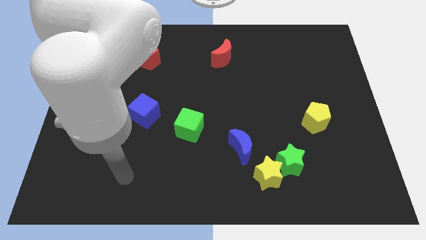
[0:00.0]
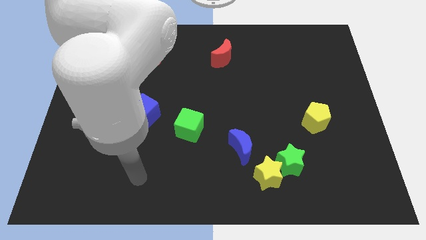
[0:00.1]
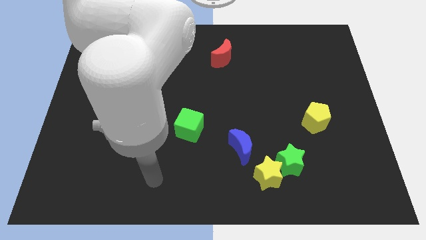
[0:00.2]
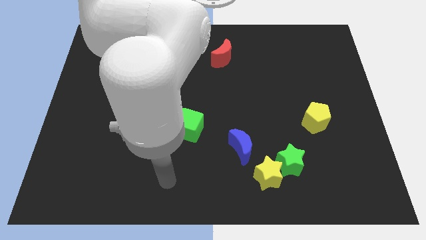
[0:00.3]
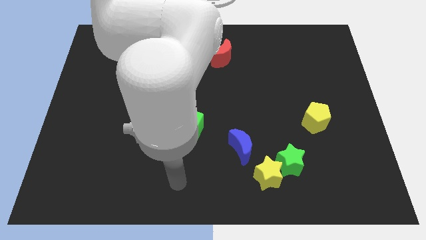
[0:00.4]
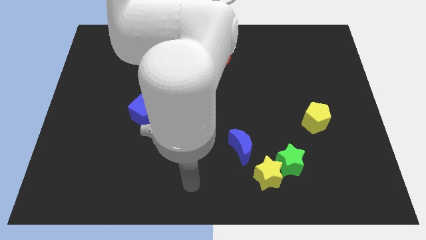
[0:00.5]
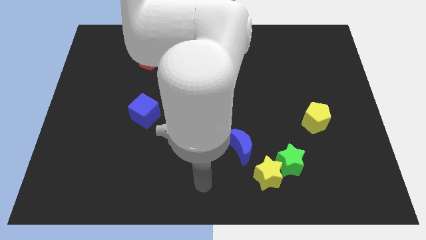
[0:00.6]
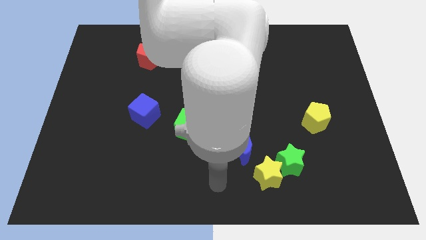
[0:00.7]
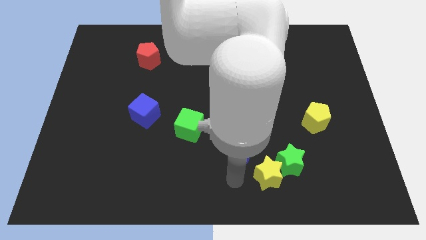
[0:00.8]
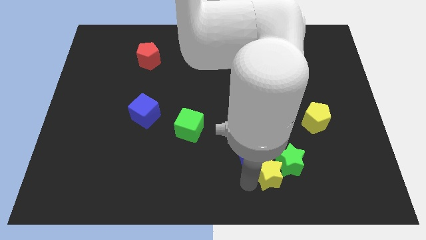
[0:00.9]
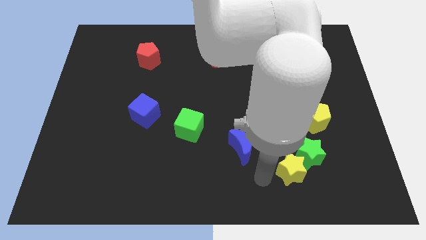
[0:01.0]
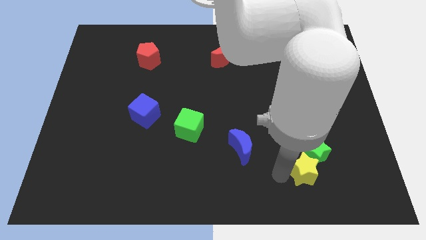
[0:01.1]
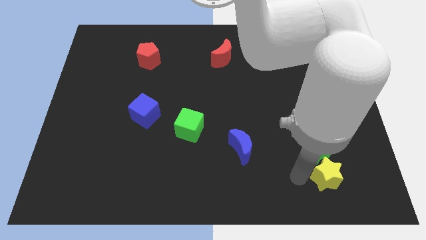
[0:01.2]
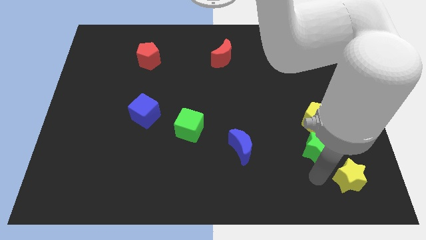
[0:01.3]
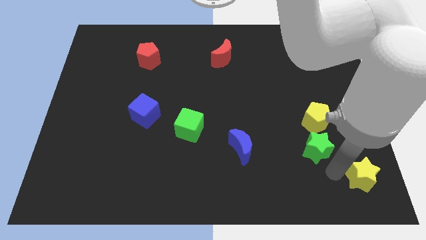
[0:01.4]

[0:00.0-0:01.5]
separate the green star from the yellow star

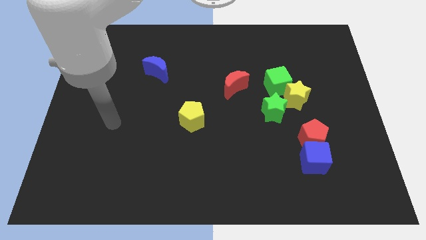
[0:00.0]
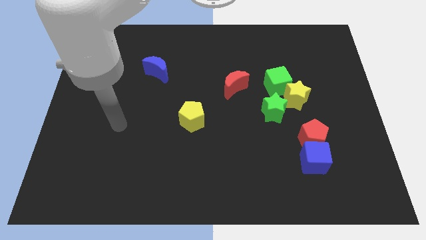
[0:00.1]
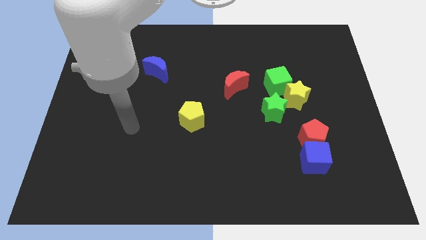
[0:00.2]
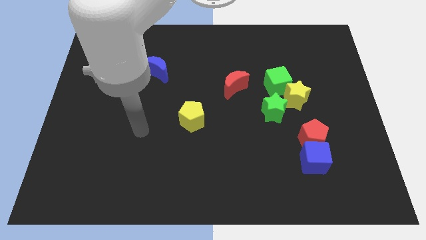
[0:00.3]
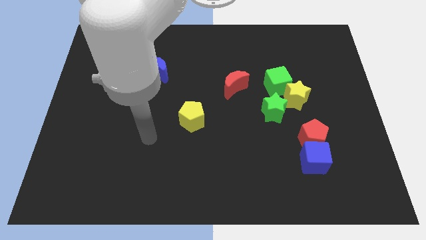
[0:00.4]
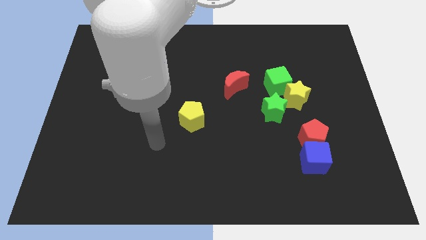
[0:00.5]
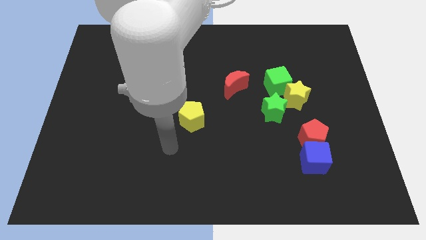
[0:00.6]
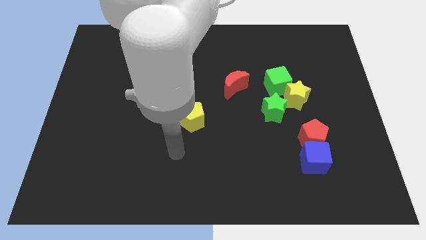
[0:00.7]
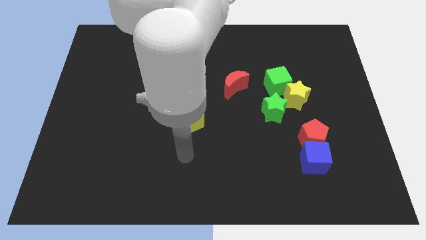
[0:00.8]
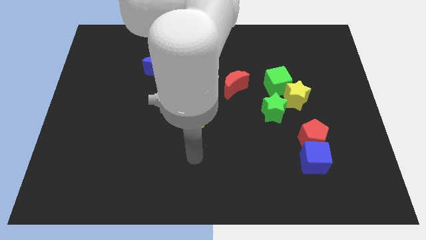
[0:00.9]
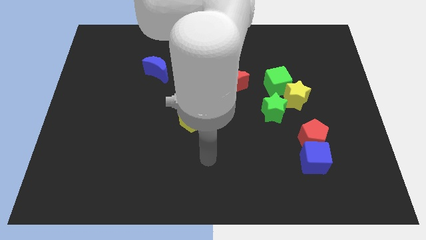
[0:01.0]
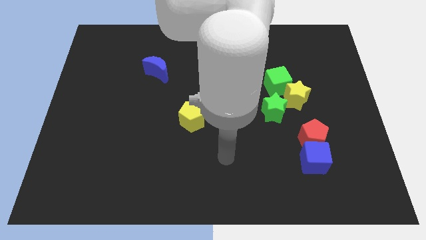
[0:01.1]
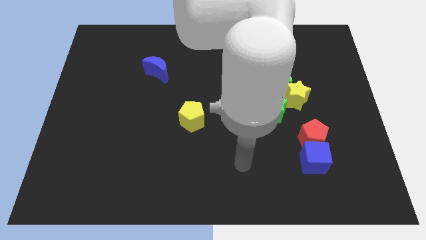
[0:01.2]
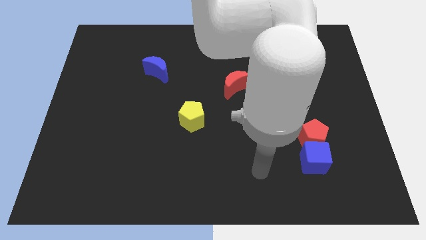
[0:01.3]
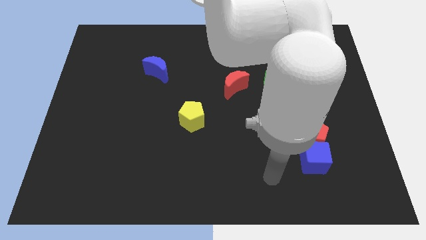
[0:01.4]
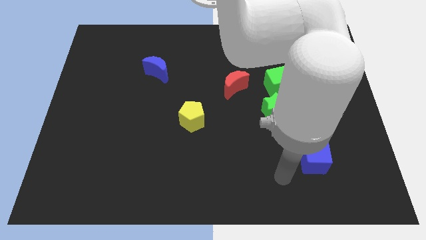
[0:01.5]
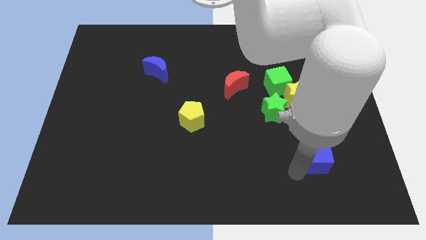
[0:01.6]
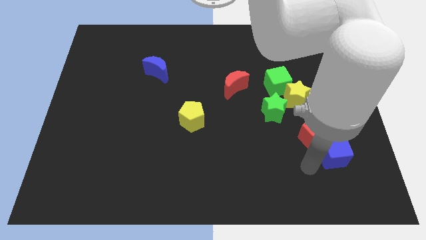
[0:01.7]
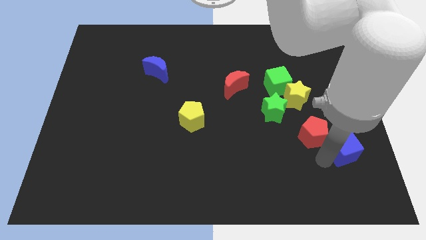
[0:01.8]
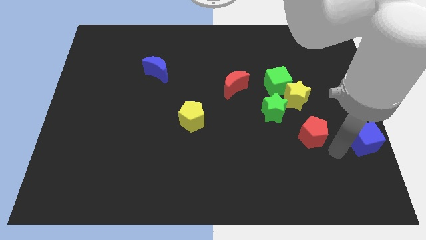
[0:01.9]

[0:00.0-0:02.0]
separate the red pentagon from the blue cube

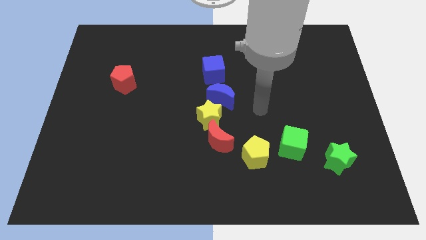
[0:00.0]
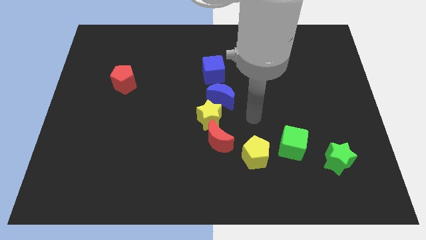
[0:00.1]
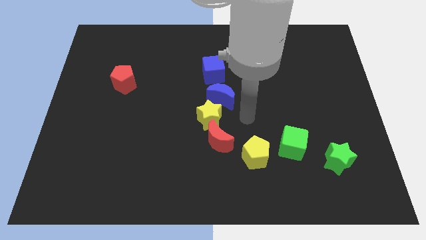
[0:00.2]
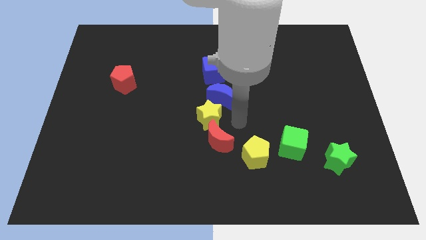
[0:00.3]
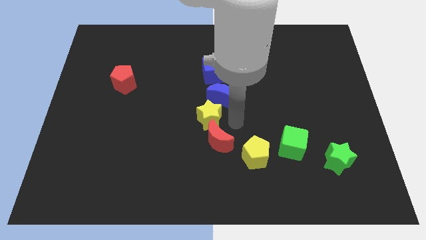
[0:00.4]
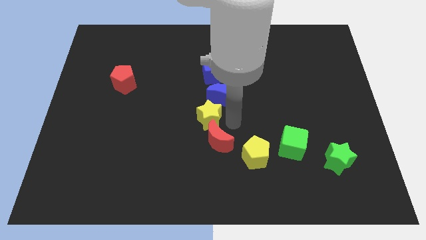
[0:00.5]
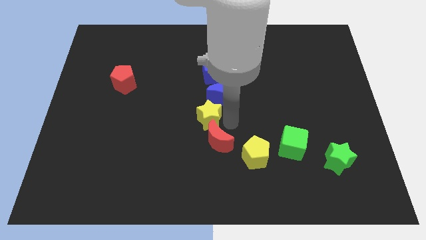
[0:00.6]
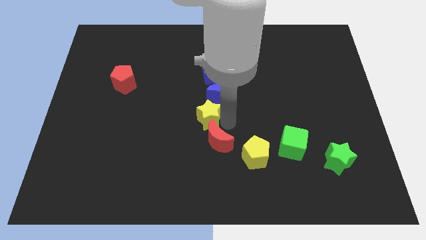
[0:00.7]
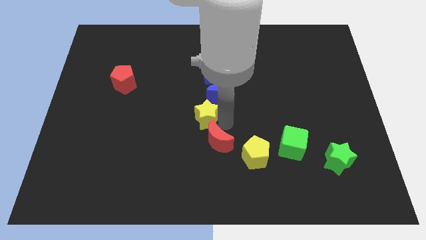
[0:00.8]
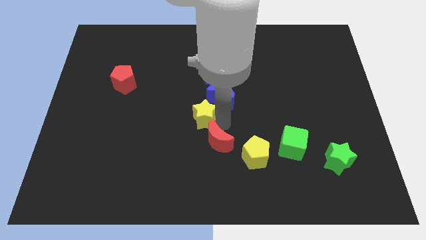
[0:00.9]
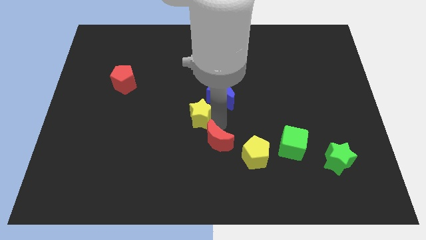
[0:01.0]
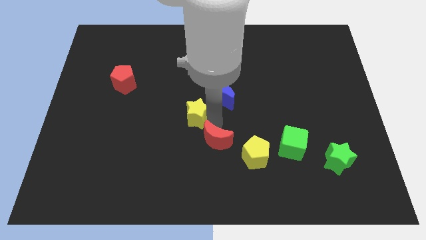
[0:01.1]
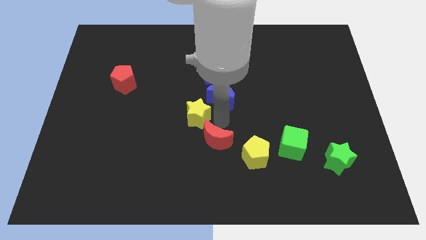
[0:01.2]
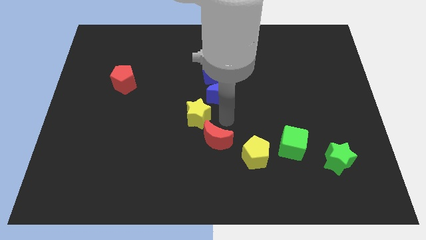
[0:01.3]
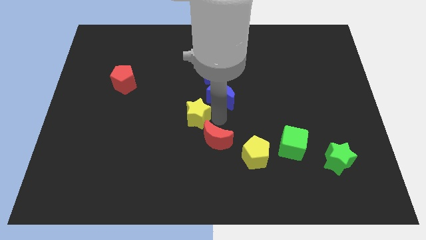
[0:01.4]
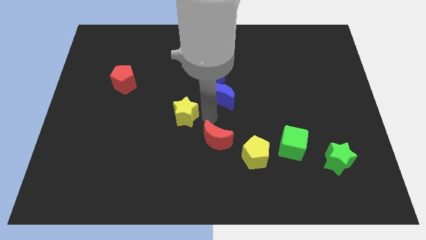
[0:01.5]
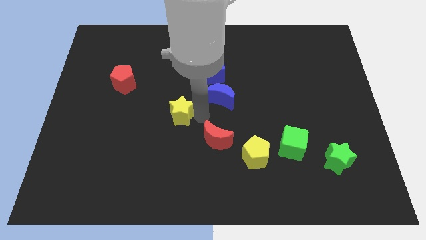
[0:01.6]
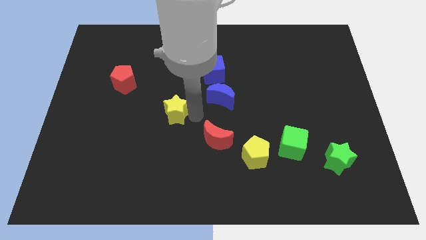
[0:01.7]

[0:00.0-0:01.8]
move the yellow star away from the blue moon and red moon

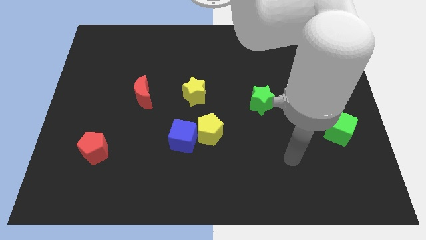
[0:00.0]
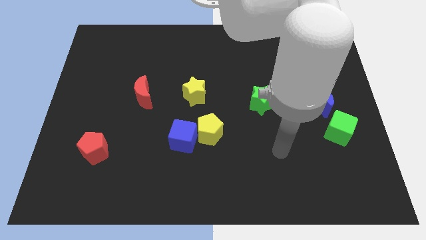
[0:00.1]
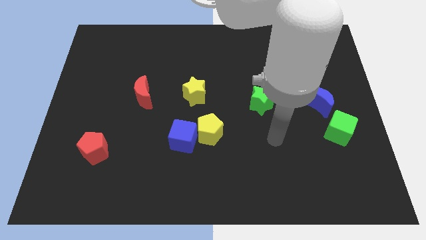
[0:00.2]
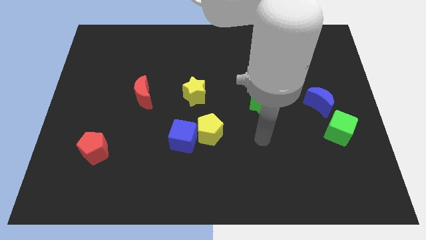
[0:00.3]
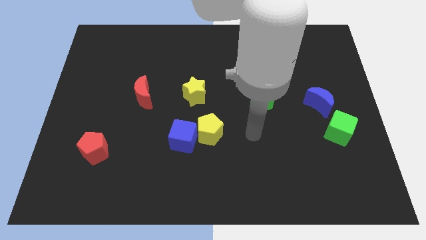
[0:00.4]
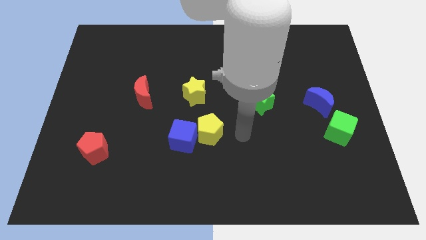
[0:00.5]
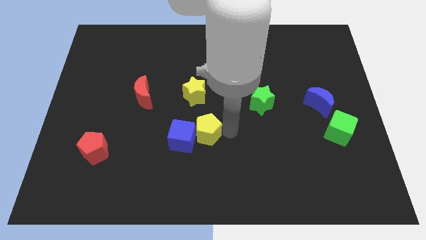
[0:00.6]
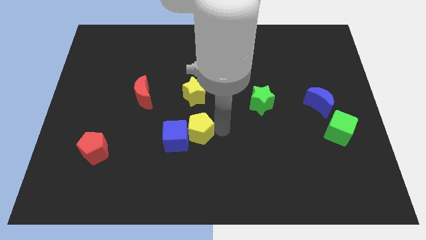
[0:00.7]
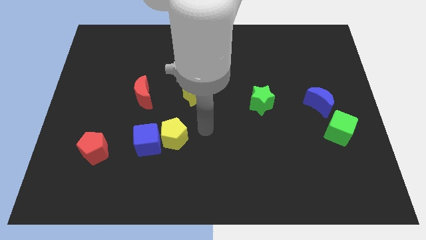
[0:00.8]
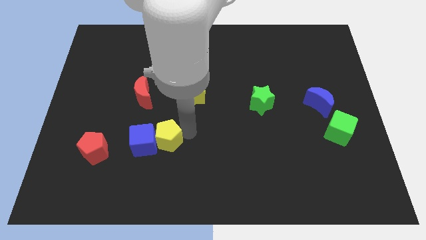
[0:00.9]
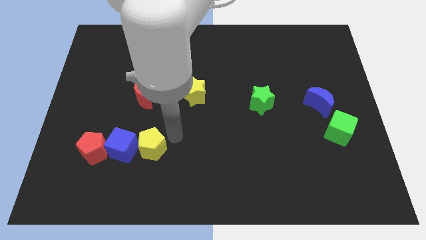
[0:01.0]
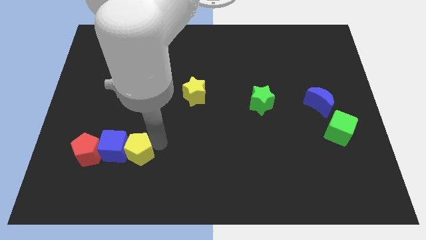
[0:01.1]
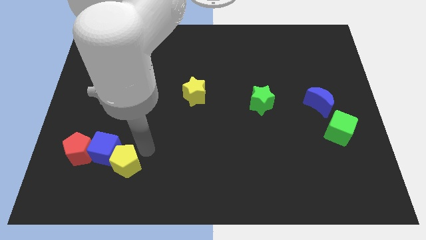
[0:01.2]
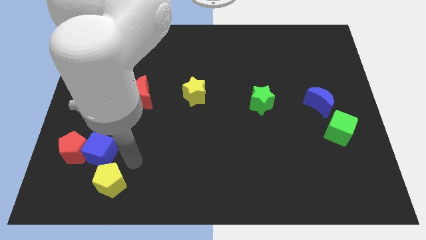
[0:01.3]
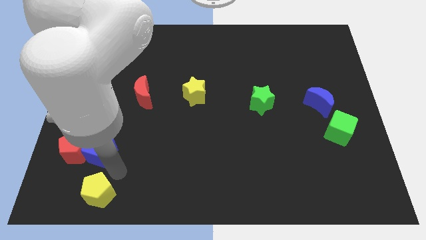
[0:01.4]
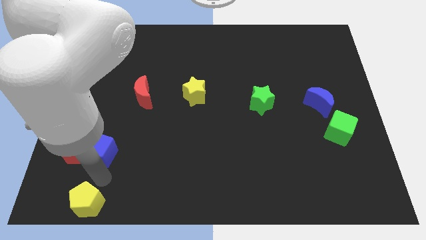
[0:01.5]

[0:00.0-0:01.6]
move the blue cube away from the yellow pentagon

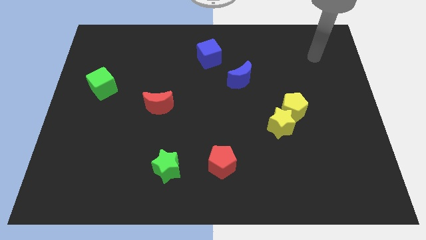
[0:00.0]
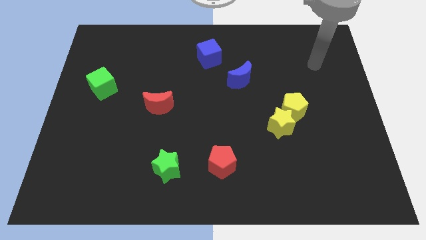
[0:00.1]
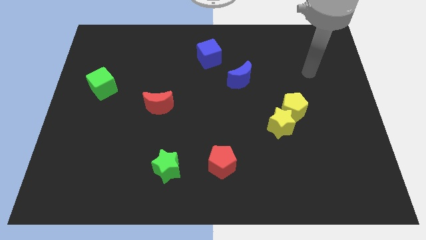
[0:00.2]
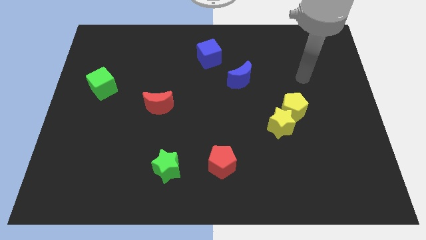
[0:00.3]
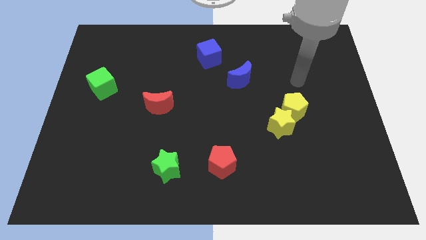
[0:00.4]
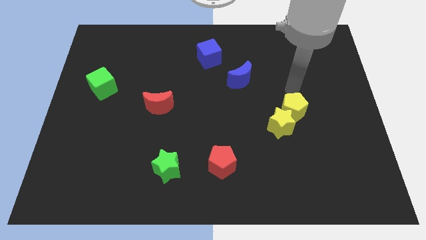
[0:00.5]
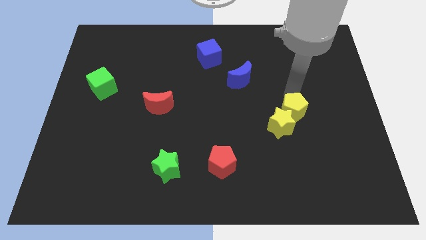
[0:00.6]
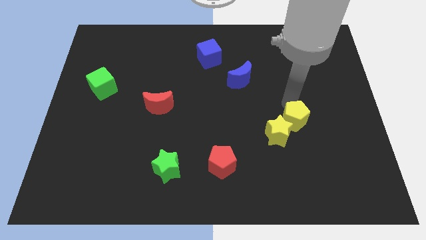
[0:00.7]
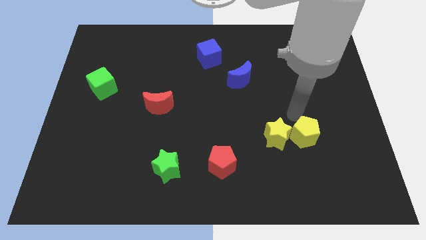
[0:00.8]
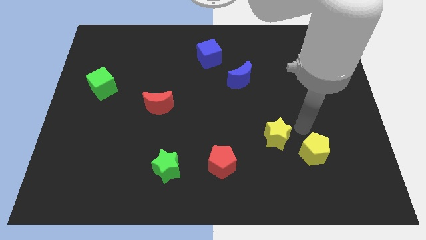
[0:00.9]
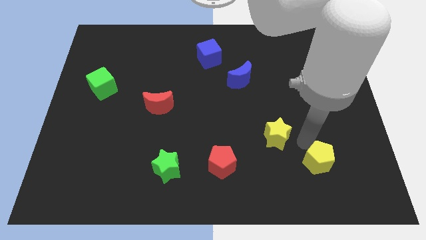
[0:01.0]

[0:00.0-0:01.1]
separate the yellow star from the yellow pentagon

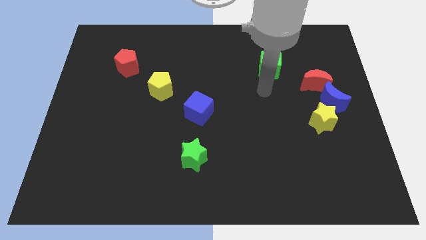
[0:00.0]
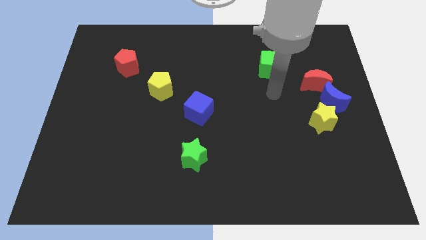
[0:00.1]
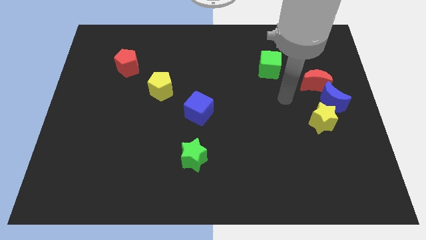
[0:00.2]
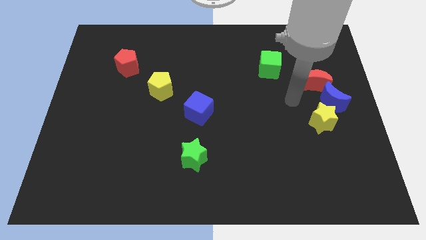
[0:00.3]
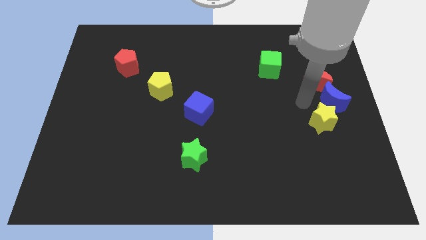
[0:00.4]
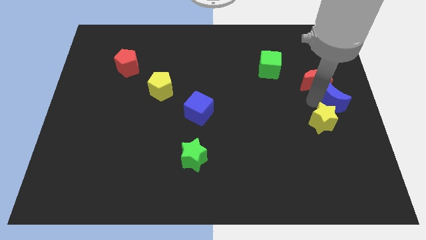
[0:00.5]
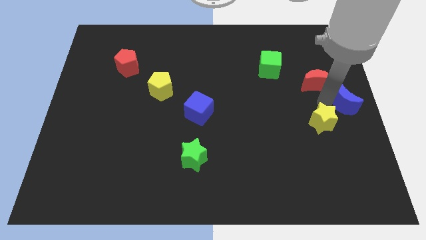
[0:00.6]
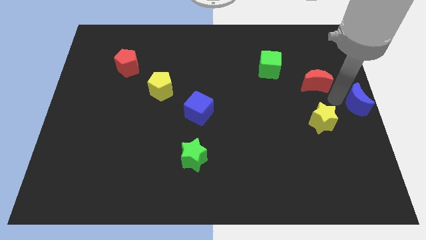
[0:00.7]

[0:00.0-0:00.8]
separate the red moon from the blue moon

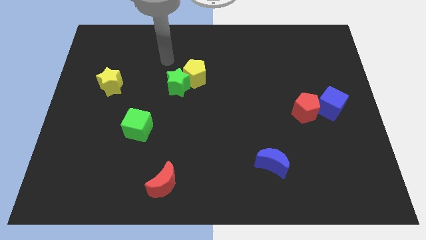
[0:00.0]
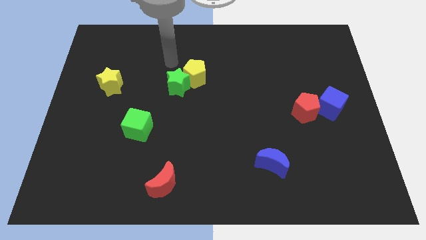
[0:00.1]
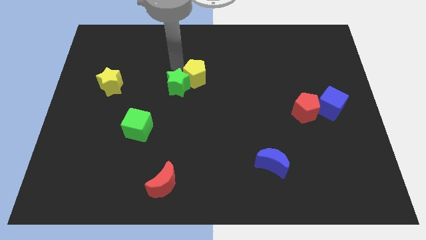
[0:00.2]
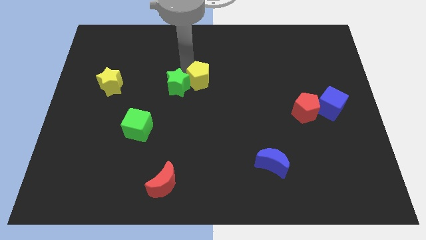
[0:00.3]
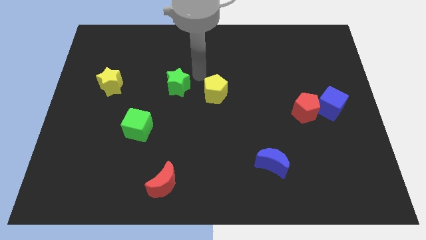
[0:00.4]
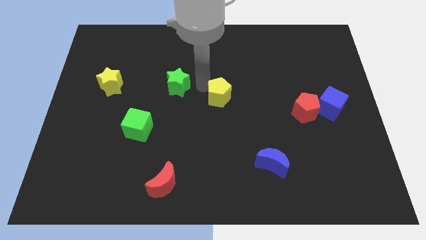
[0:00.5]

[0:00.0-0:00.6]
separate the green star from the yellow pentagon
